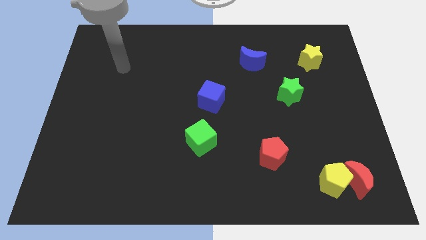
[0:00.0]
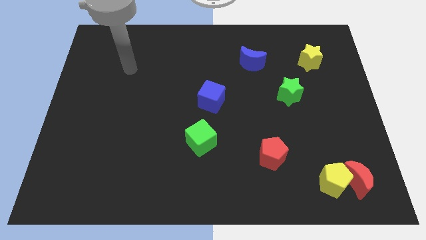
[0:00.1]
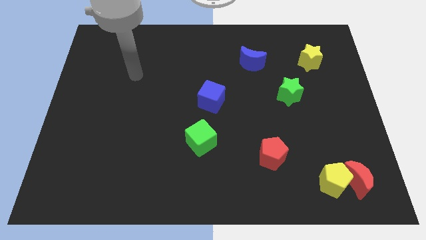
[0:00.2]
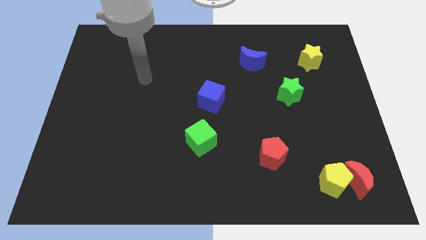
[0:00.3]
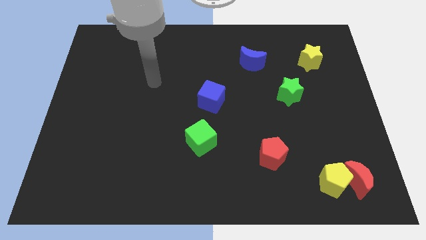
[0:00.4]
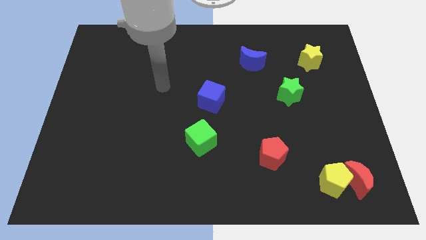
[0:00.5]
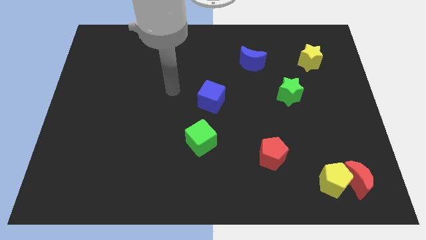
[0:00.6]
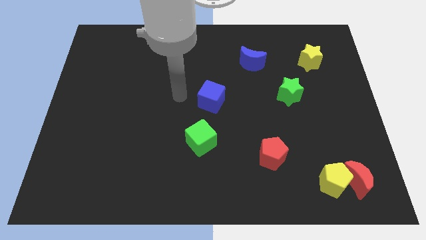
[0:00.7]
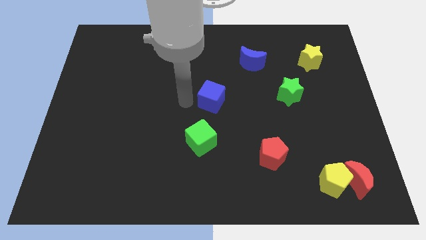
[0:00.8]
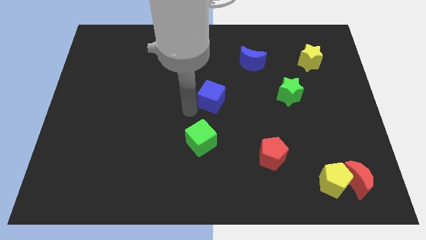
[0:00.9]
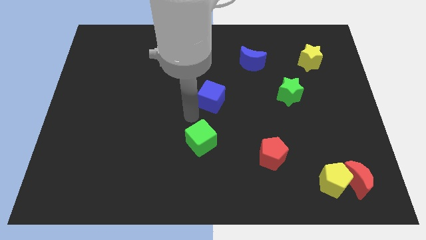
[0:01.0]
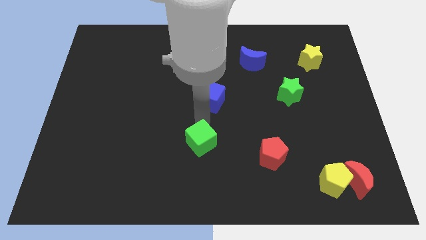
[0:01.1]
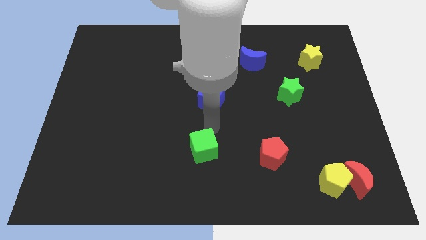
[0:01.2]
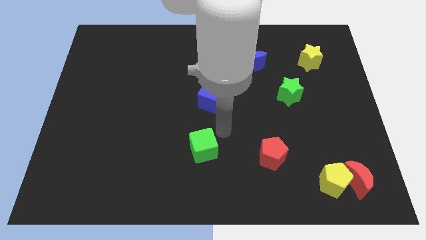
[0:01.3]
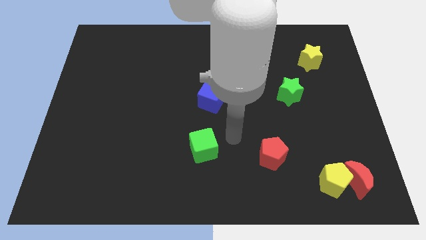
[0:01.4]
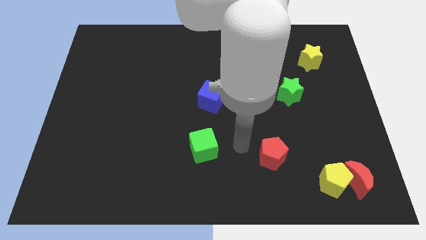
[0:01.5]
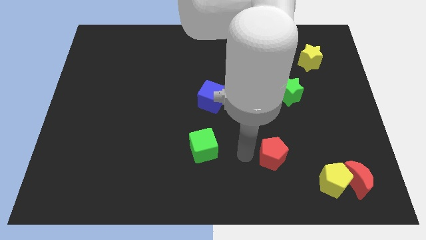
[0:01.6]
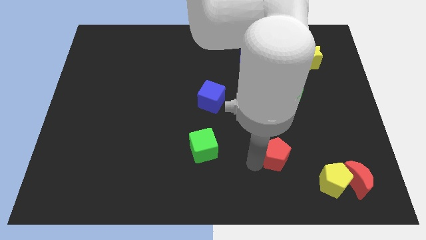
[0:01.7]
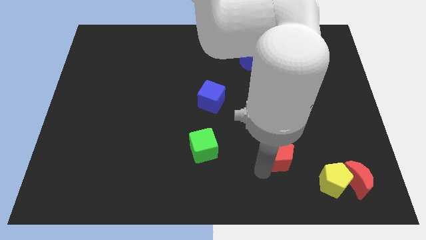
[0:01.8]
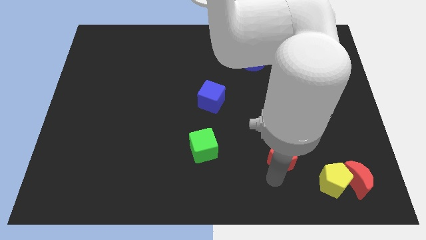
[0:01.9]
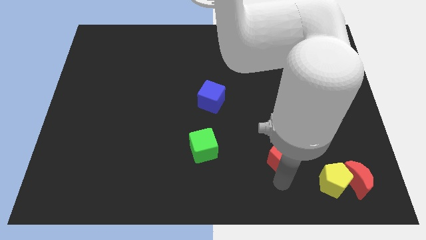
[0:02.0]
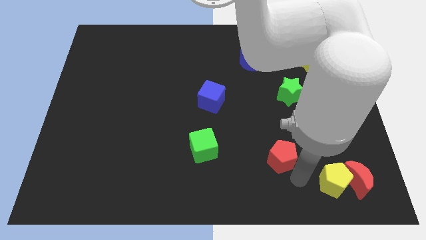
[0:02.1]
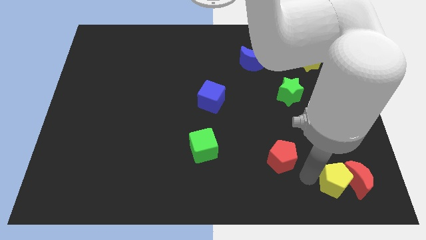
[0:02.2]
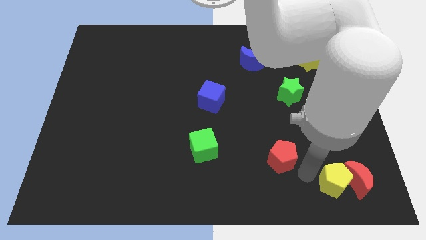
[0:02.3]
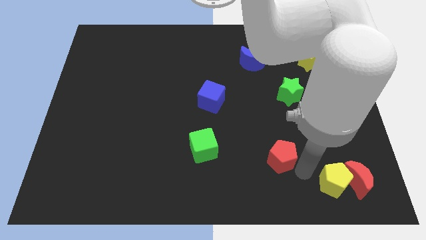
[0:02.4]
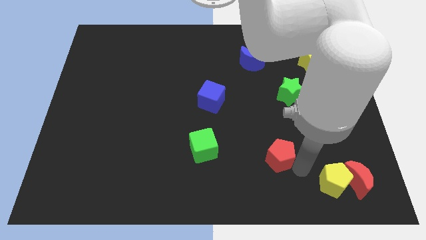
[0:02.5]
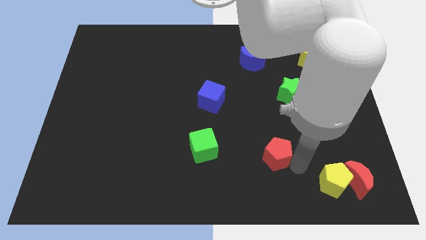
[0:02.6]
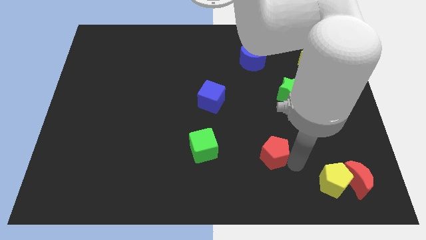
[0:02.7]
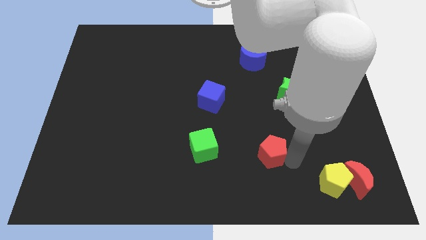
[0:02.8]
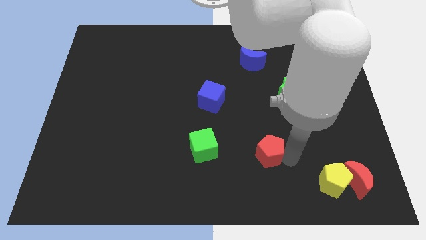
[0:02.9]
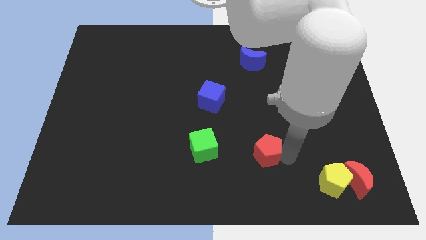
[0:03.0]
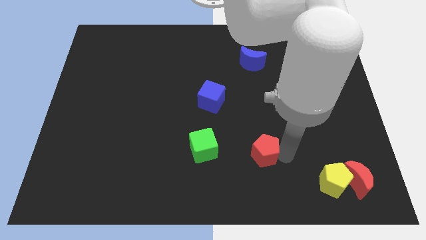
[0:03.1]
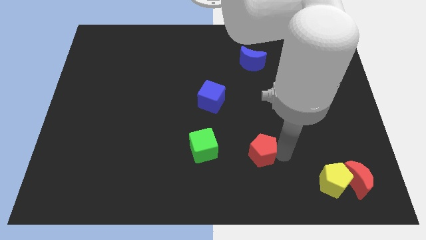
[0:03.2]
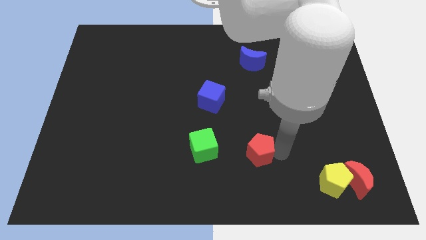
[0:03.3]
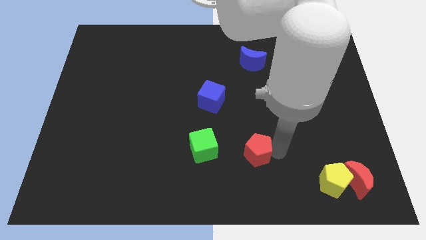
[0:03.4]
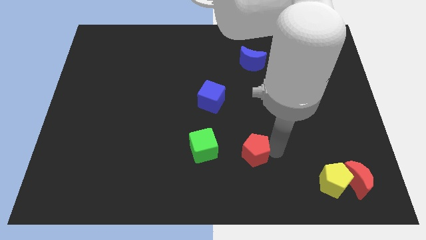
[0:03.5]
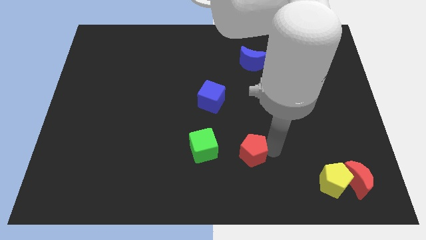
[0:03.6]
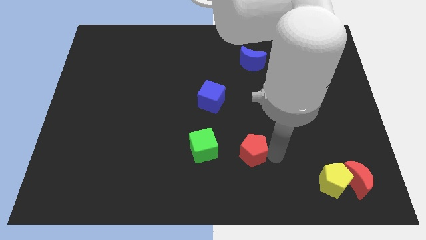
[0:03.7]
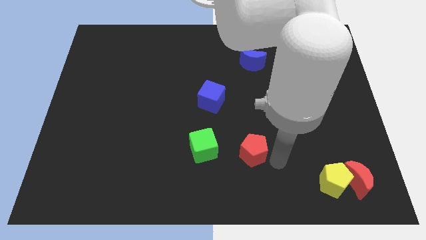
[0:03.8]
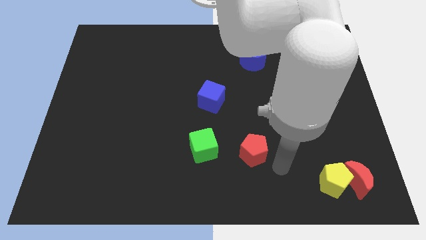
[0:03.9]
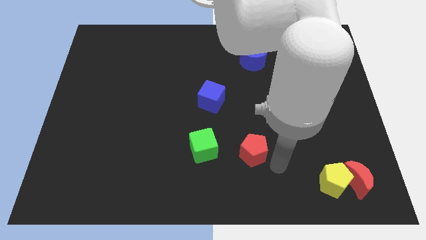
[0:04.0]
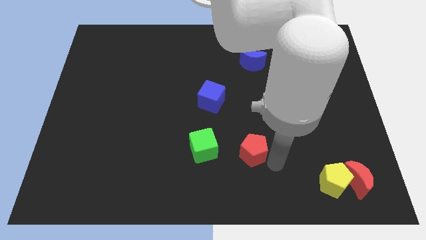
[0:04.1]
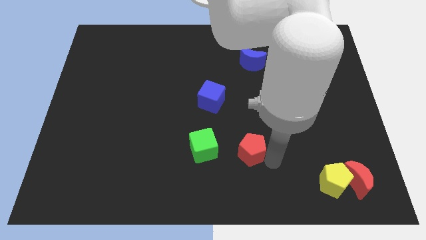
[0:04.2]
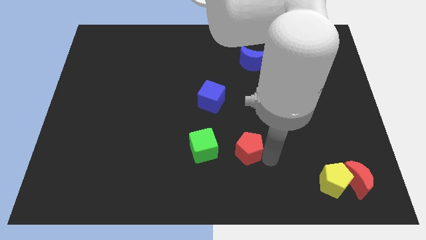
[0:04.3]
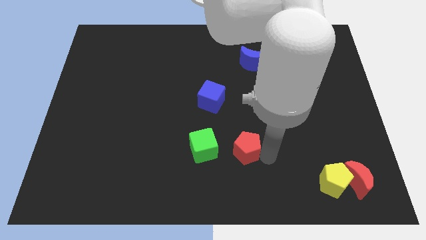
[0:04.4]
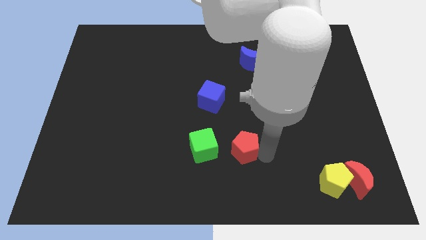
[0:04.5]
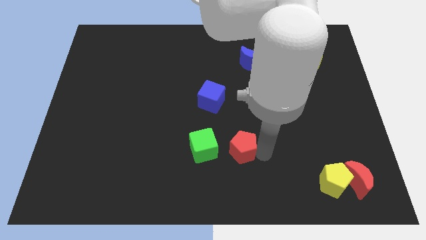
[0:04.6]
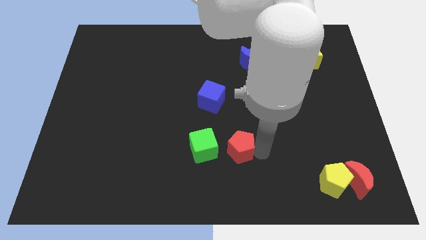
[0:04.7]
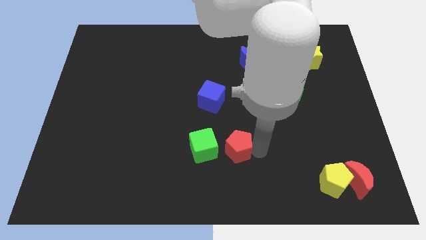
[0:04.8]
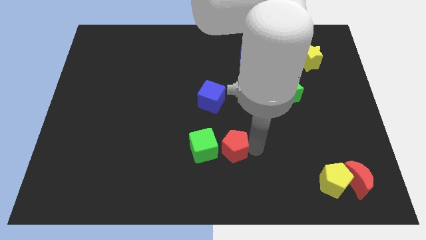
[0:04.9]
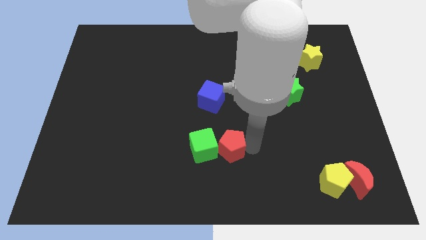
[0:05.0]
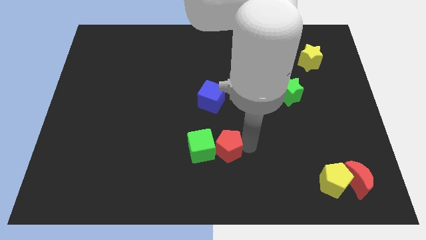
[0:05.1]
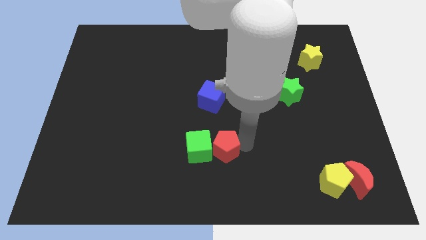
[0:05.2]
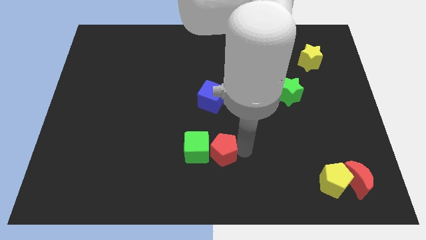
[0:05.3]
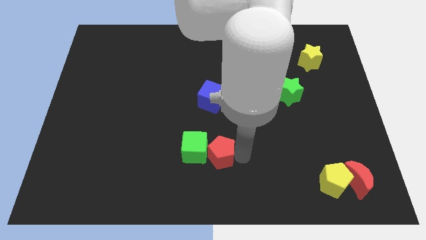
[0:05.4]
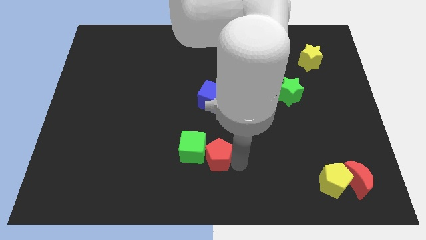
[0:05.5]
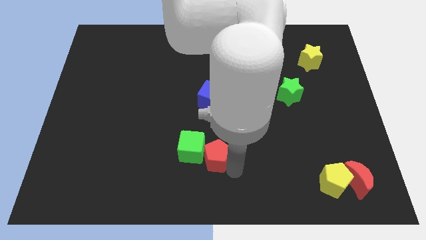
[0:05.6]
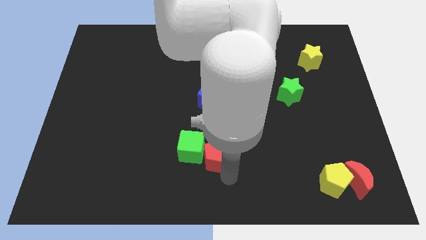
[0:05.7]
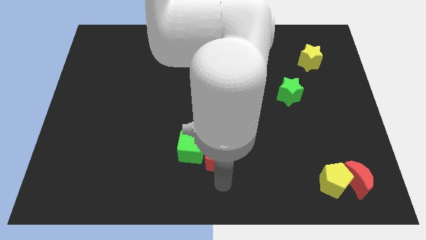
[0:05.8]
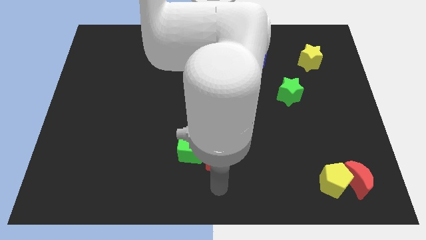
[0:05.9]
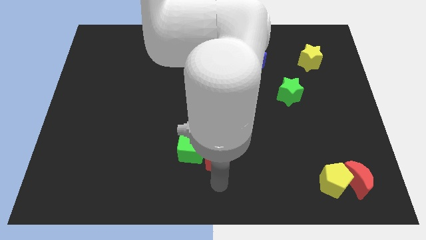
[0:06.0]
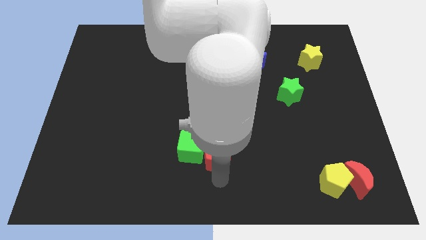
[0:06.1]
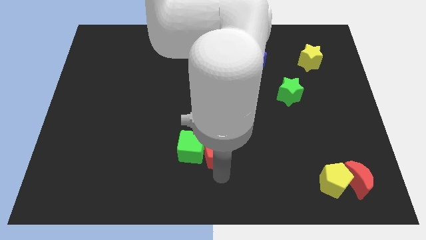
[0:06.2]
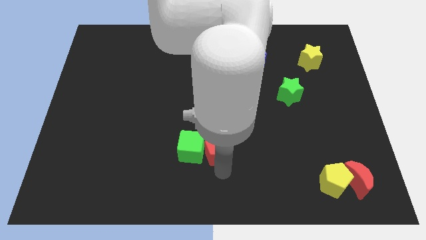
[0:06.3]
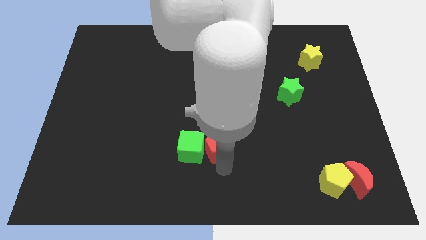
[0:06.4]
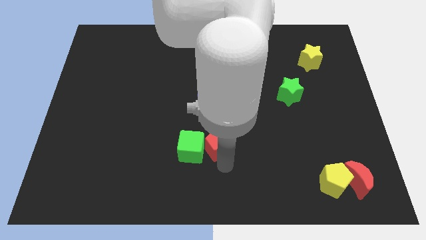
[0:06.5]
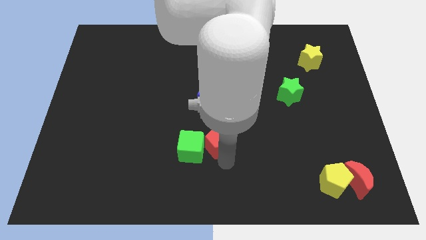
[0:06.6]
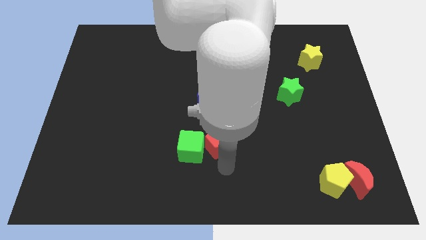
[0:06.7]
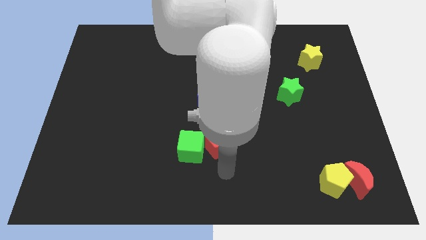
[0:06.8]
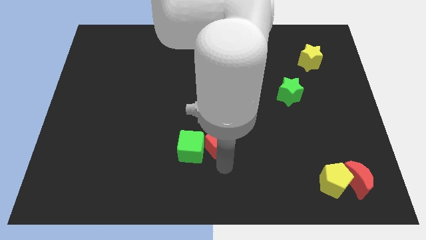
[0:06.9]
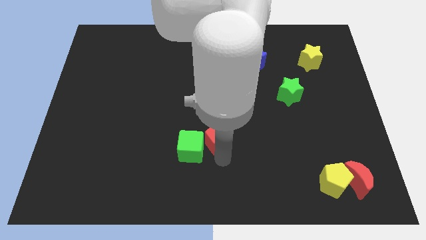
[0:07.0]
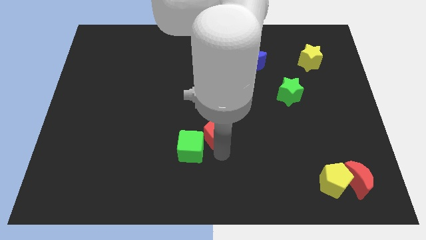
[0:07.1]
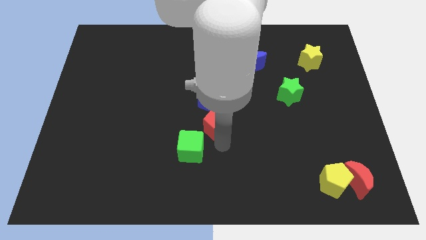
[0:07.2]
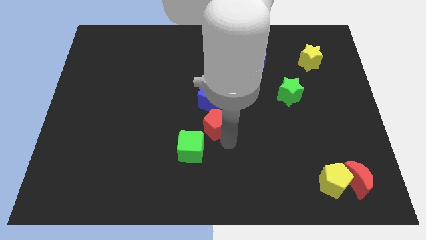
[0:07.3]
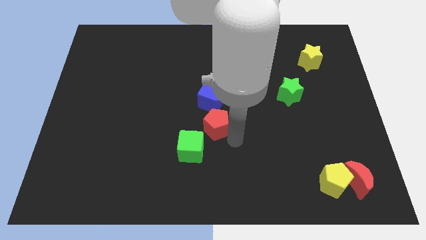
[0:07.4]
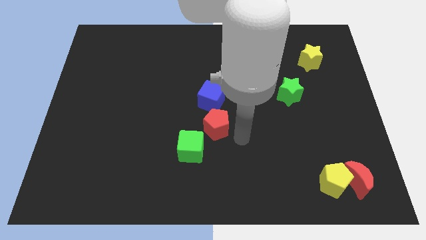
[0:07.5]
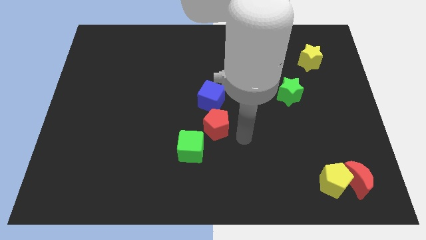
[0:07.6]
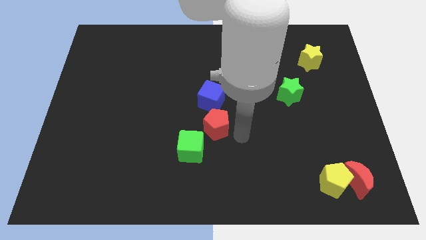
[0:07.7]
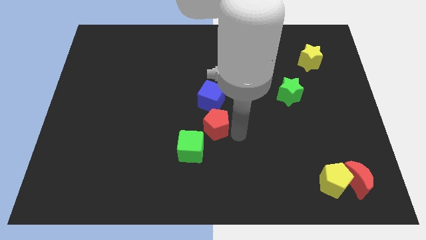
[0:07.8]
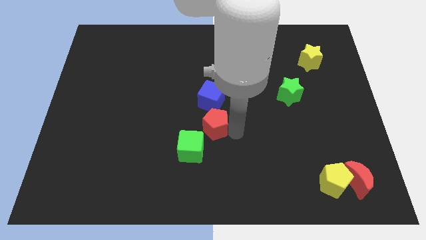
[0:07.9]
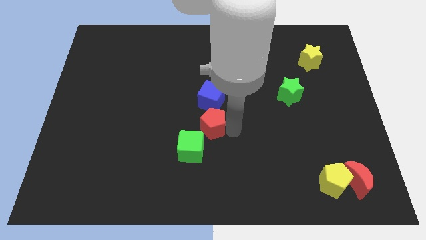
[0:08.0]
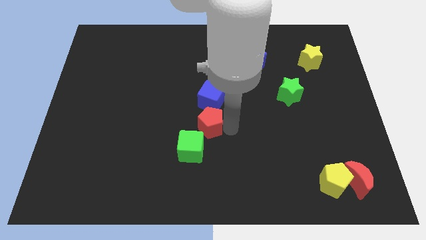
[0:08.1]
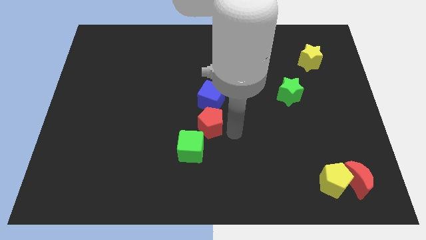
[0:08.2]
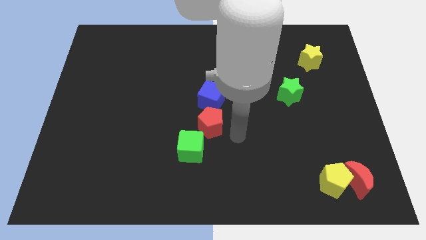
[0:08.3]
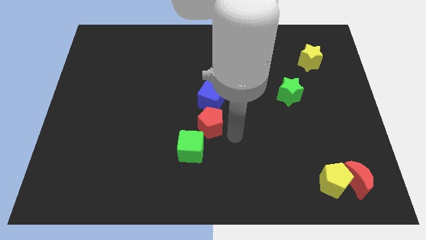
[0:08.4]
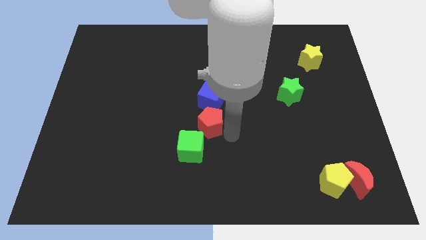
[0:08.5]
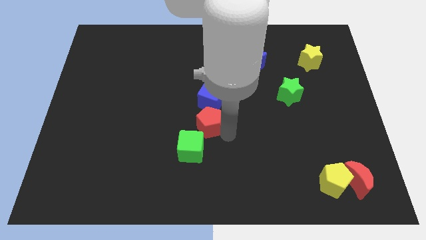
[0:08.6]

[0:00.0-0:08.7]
move the red pentagon to the bottom left of the blue cube
